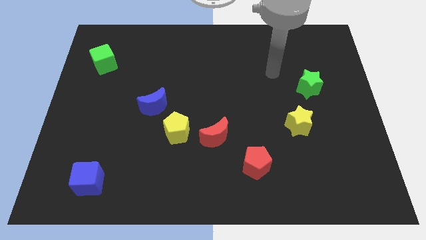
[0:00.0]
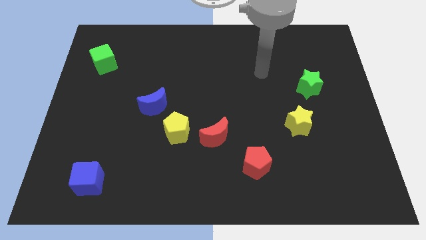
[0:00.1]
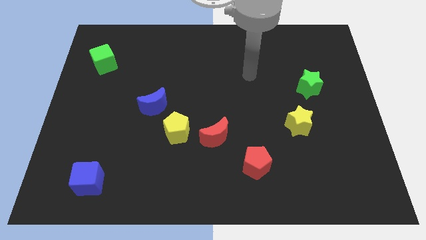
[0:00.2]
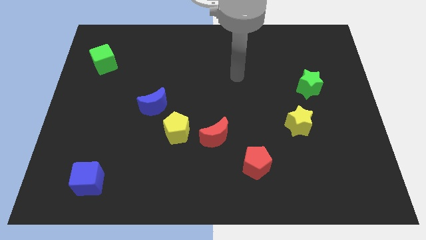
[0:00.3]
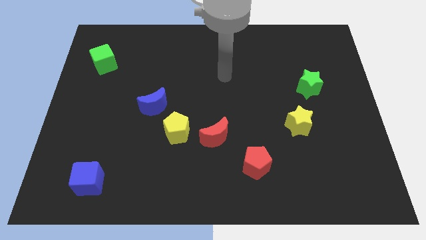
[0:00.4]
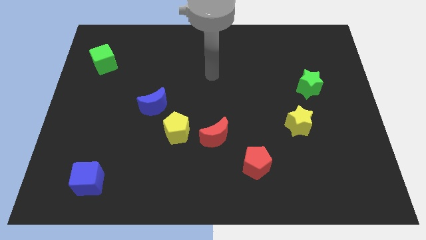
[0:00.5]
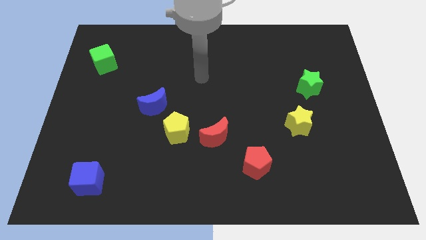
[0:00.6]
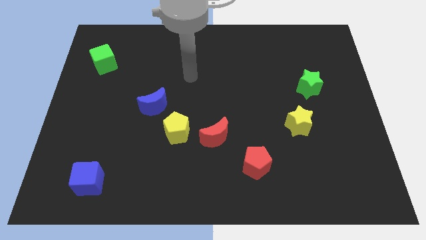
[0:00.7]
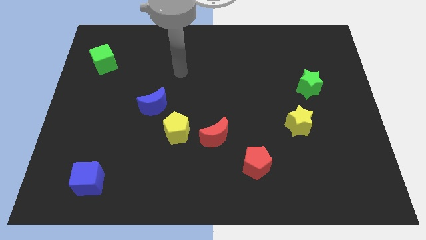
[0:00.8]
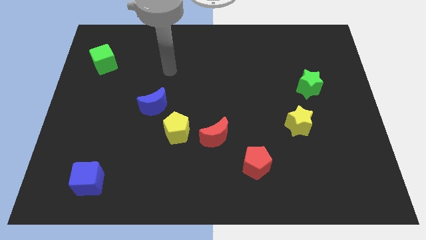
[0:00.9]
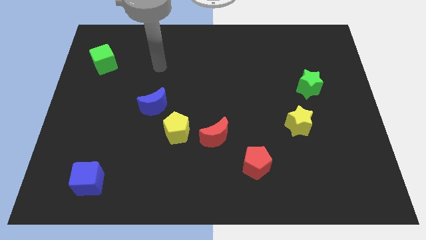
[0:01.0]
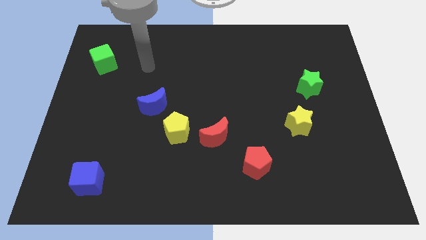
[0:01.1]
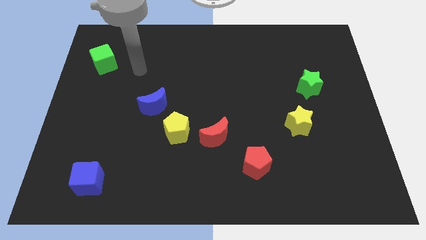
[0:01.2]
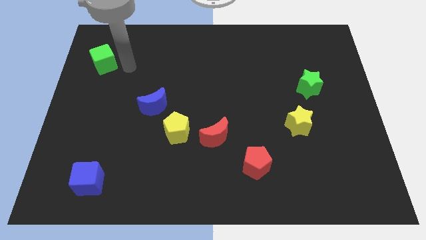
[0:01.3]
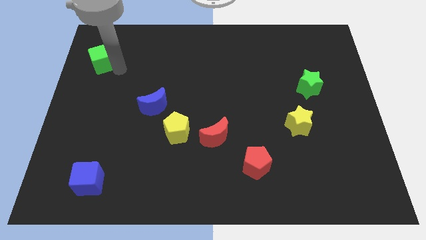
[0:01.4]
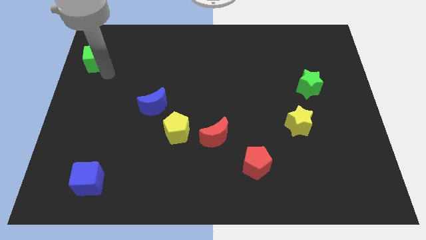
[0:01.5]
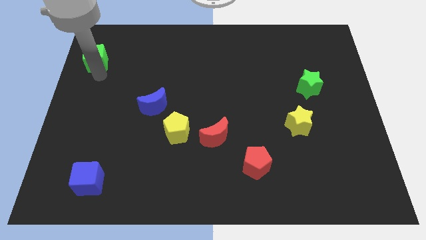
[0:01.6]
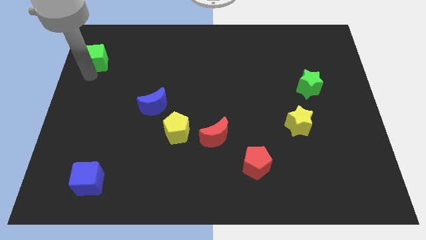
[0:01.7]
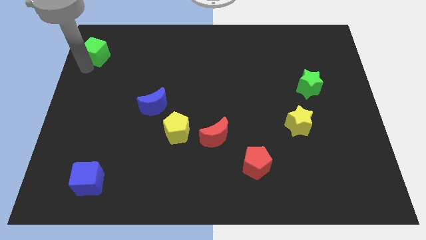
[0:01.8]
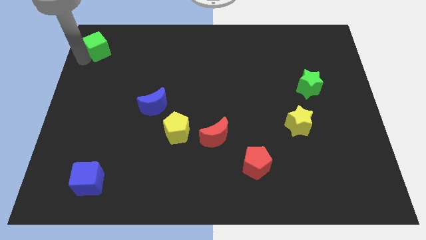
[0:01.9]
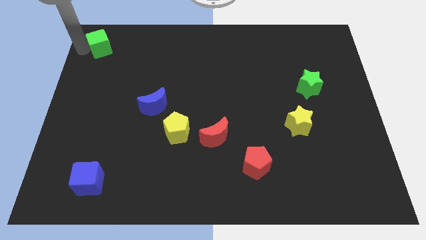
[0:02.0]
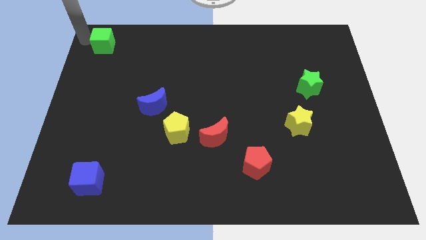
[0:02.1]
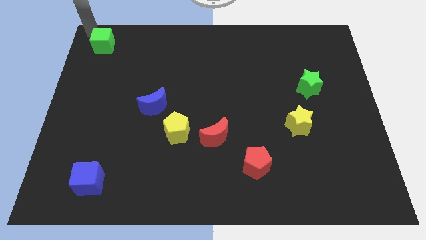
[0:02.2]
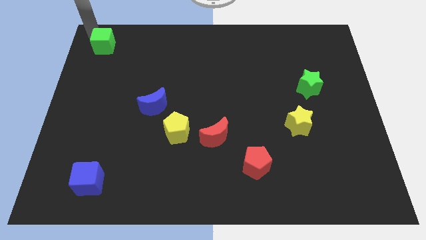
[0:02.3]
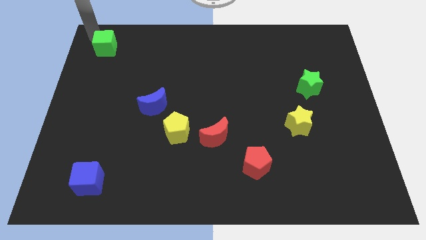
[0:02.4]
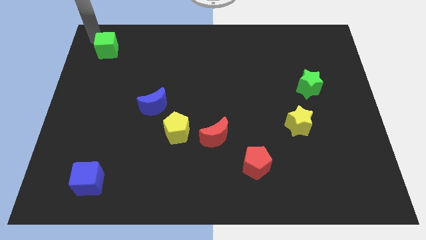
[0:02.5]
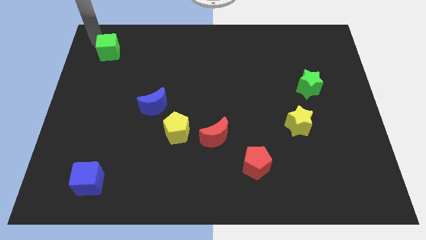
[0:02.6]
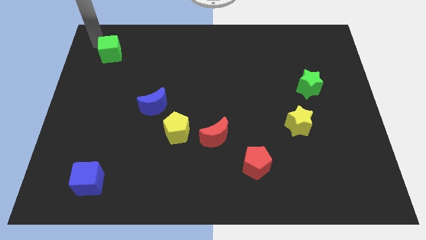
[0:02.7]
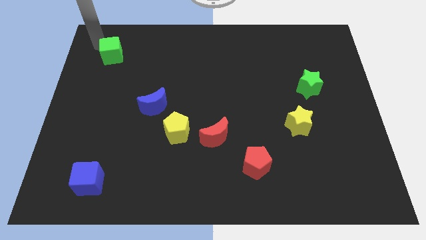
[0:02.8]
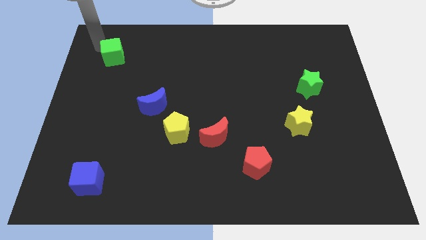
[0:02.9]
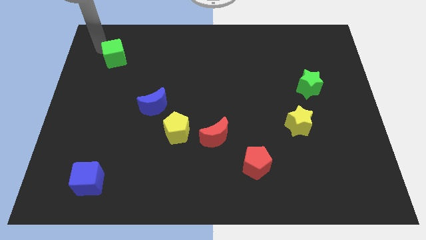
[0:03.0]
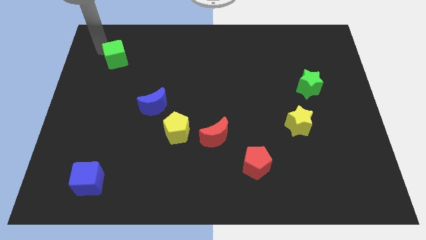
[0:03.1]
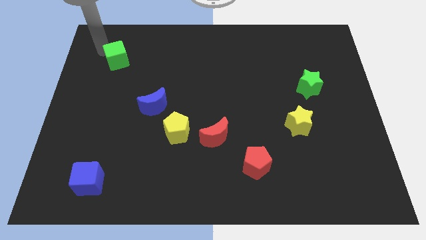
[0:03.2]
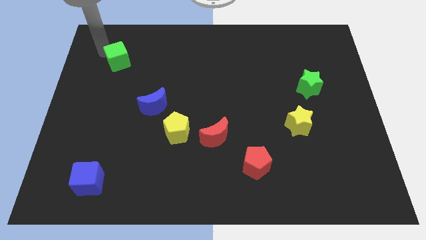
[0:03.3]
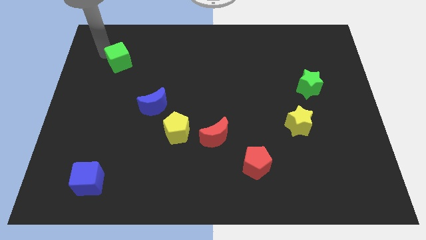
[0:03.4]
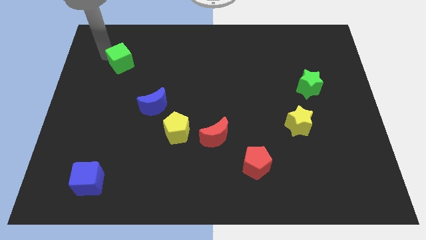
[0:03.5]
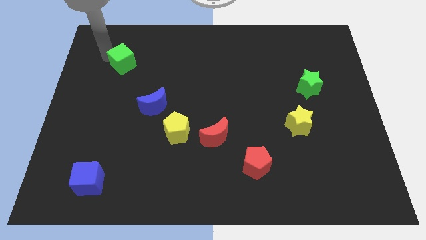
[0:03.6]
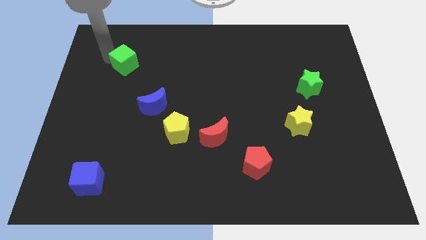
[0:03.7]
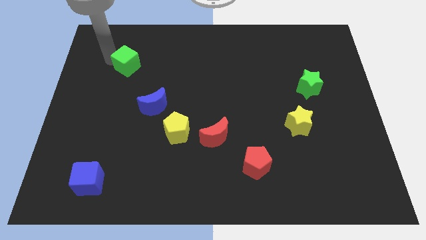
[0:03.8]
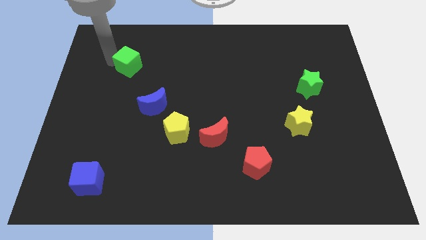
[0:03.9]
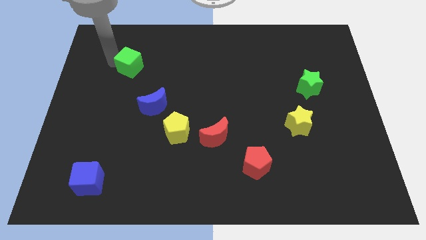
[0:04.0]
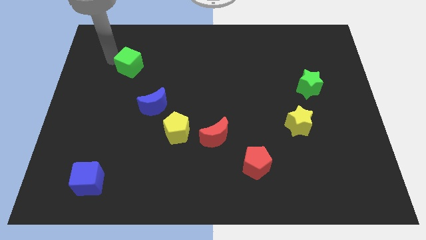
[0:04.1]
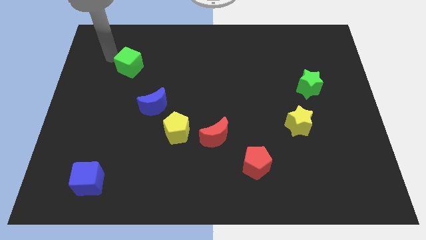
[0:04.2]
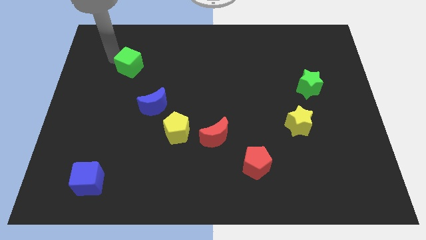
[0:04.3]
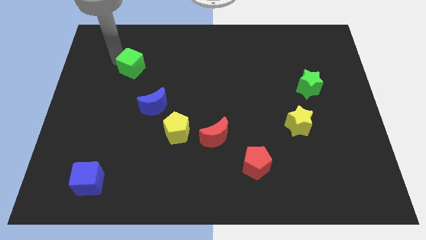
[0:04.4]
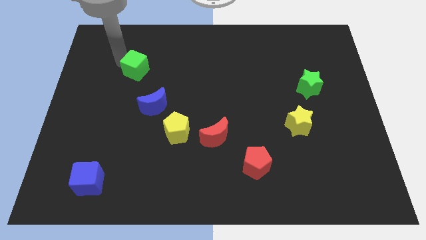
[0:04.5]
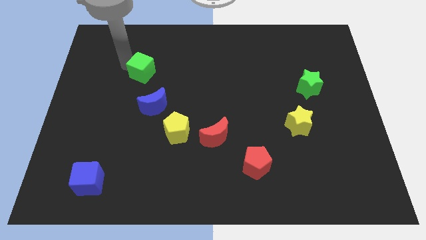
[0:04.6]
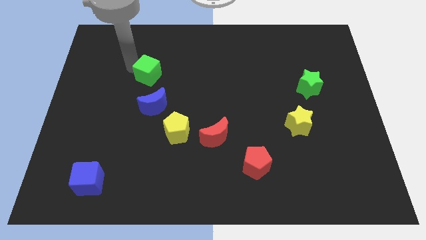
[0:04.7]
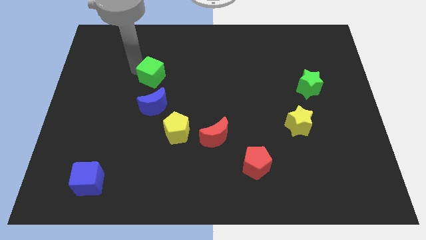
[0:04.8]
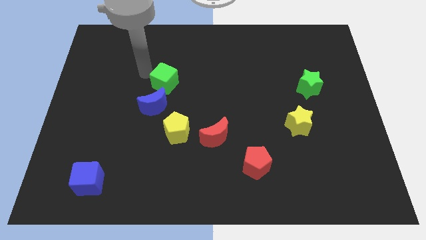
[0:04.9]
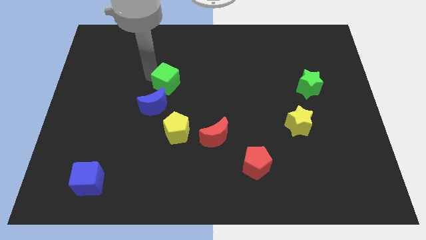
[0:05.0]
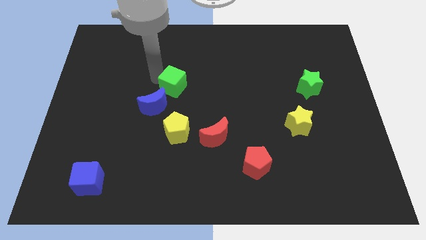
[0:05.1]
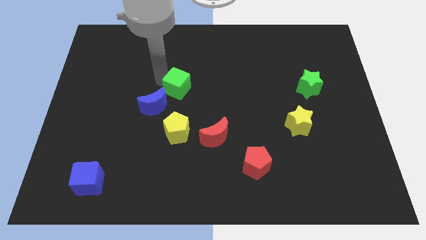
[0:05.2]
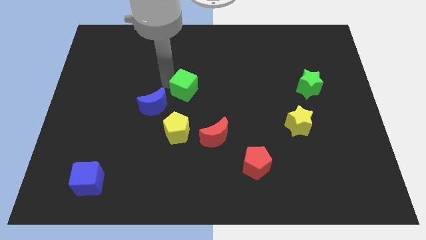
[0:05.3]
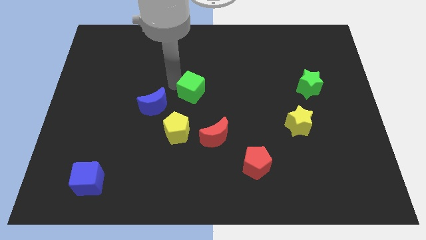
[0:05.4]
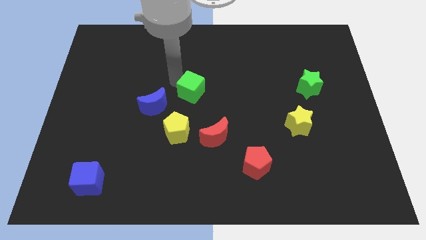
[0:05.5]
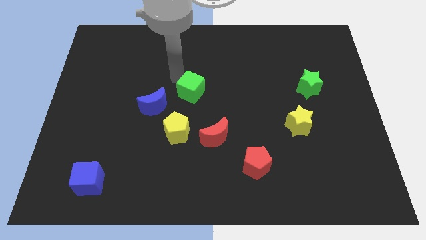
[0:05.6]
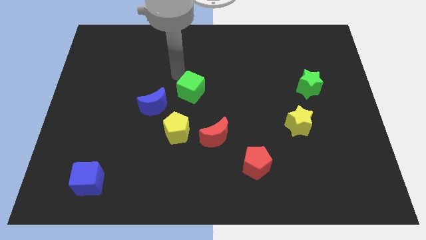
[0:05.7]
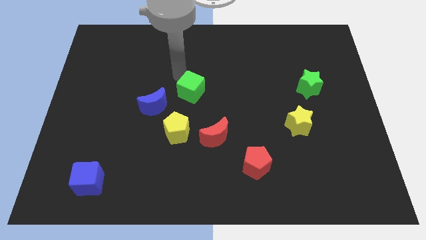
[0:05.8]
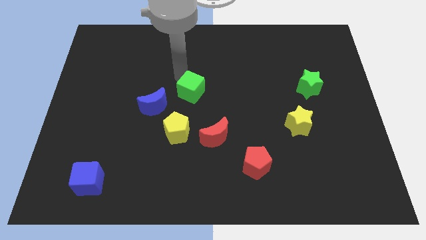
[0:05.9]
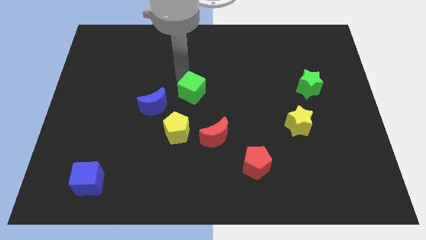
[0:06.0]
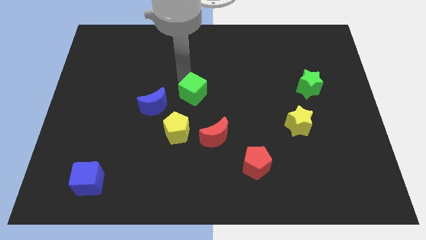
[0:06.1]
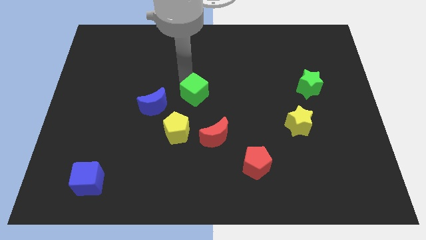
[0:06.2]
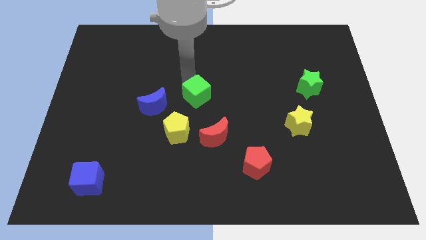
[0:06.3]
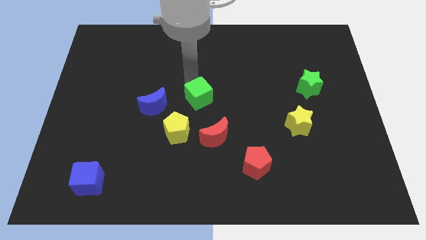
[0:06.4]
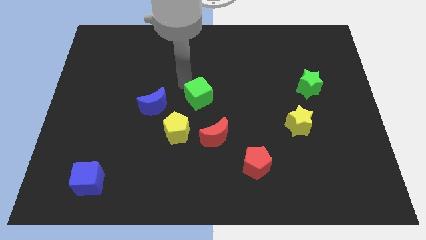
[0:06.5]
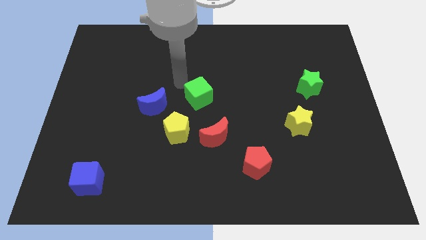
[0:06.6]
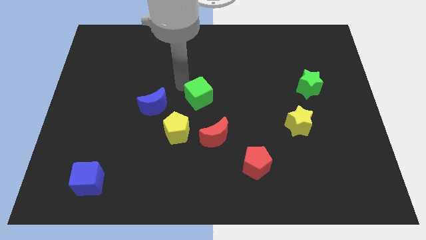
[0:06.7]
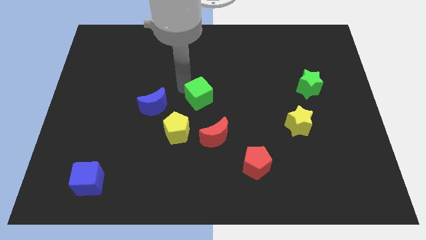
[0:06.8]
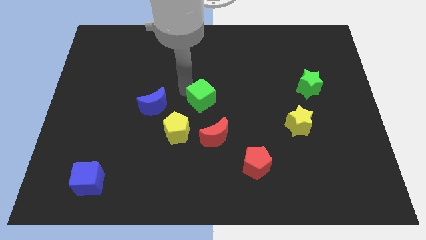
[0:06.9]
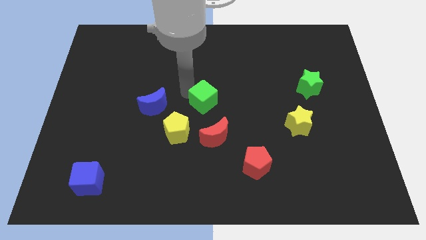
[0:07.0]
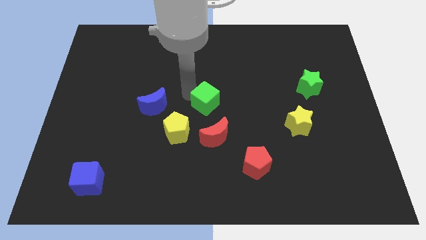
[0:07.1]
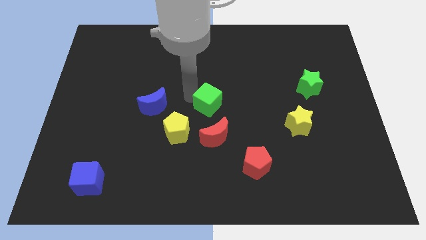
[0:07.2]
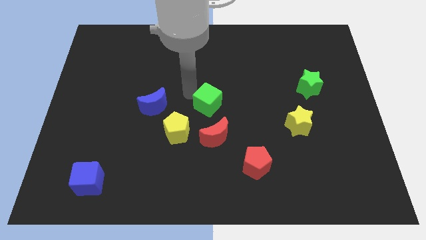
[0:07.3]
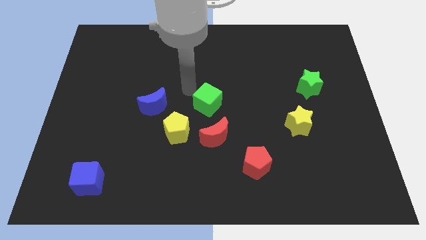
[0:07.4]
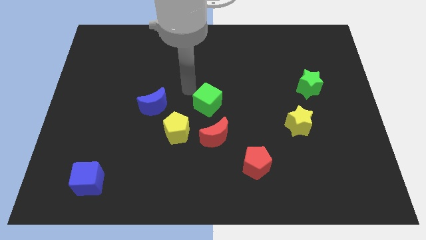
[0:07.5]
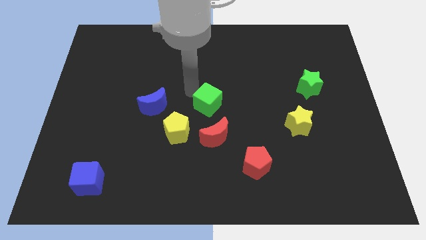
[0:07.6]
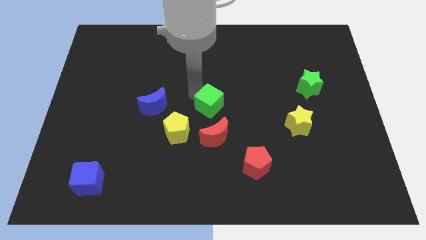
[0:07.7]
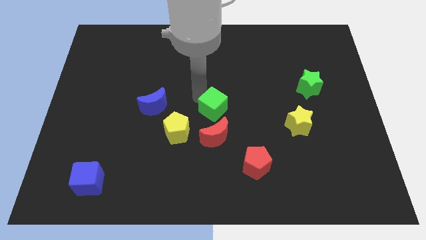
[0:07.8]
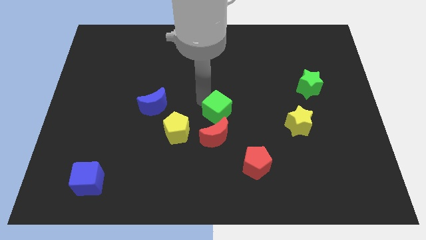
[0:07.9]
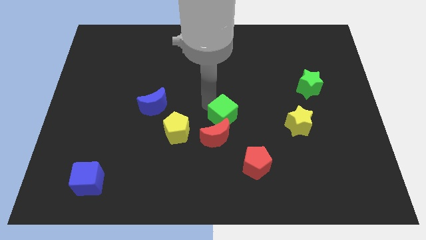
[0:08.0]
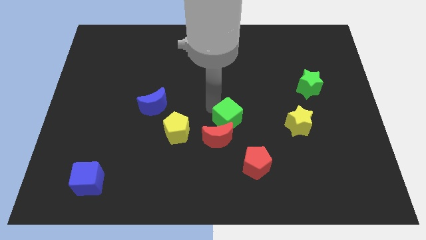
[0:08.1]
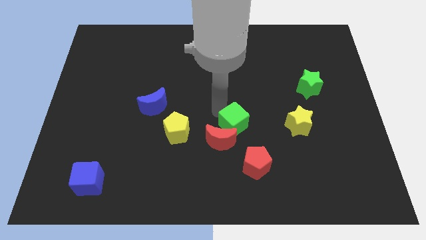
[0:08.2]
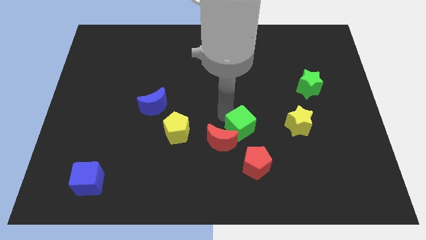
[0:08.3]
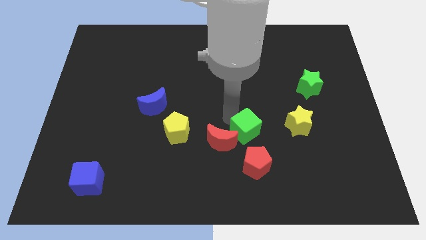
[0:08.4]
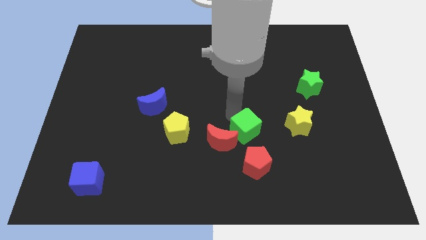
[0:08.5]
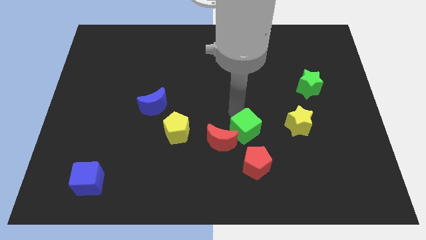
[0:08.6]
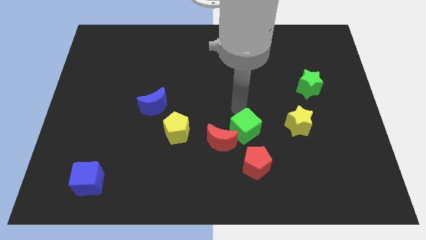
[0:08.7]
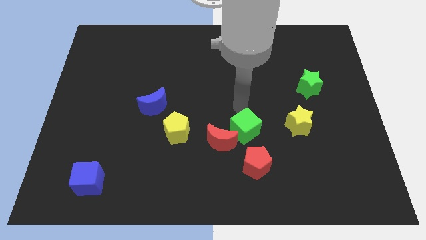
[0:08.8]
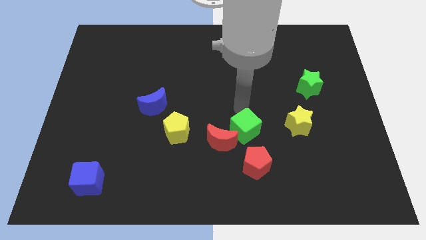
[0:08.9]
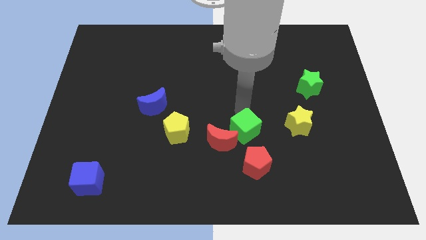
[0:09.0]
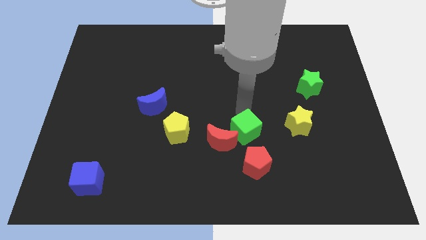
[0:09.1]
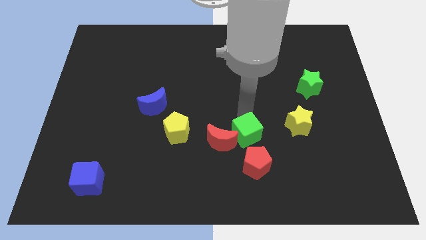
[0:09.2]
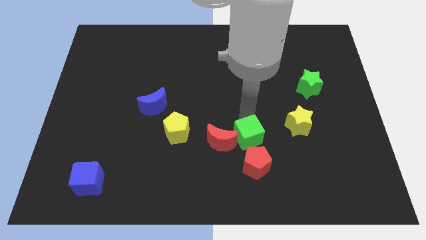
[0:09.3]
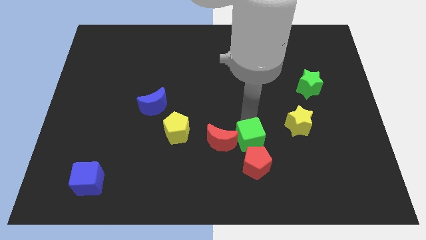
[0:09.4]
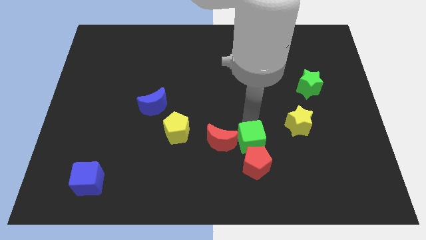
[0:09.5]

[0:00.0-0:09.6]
slide the green cube to the red pentagon
